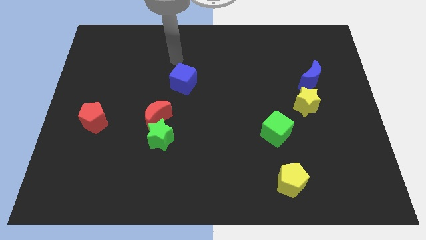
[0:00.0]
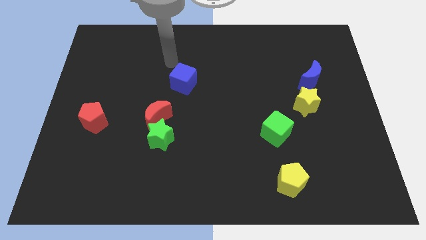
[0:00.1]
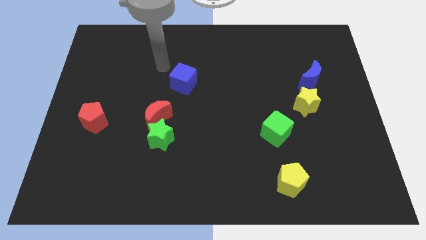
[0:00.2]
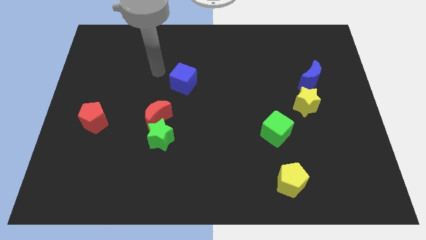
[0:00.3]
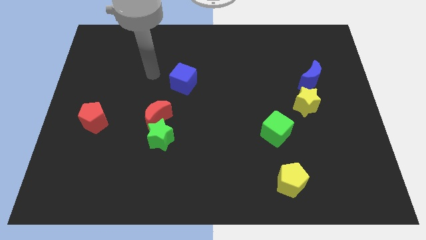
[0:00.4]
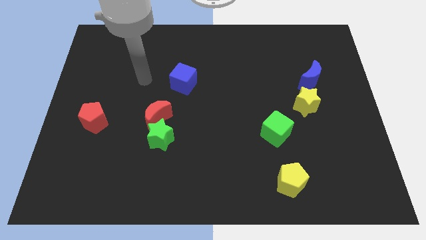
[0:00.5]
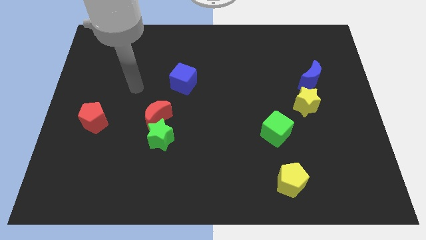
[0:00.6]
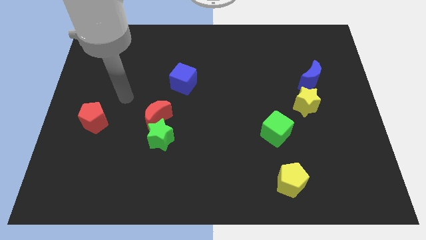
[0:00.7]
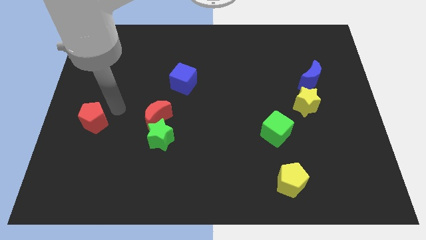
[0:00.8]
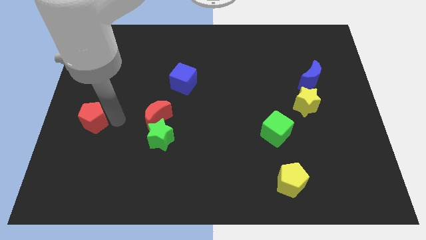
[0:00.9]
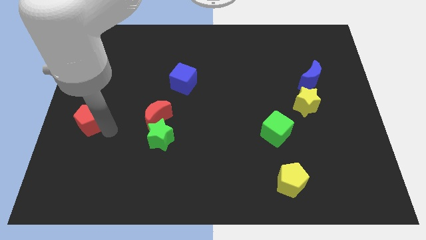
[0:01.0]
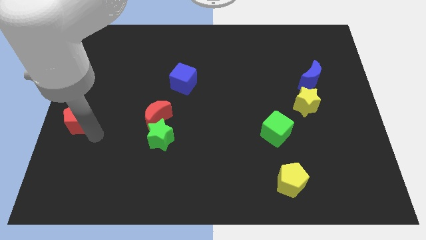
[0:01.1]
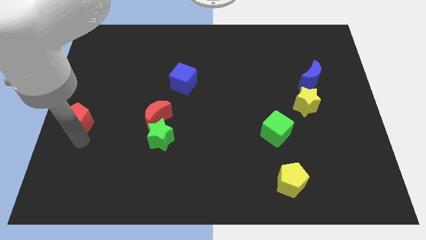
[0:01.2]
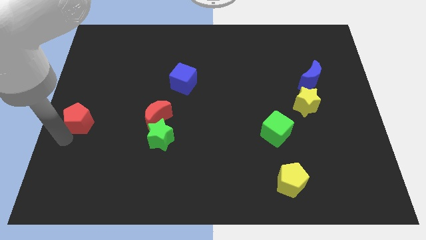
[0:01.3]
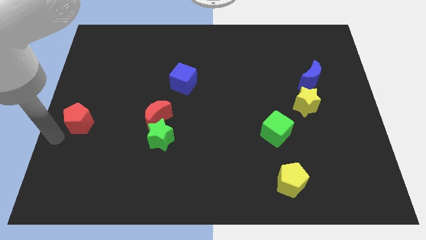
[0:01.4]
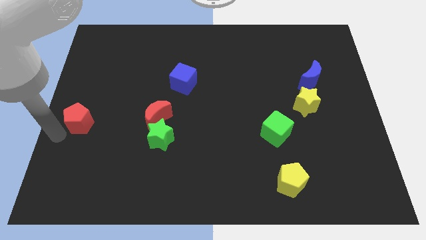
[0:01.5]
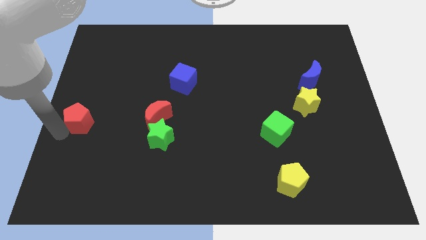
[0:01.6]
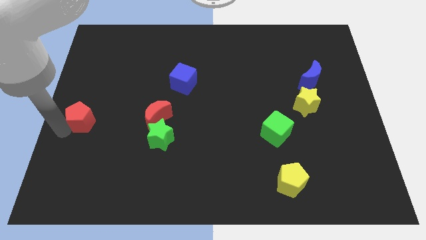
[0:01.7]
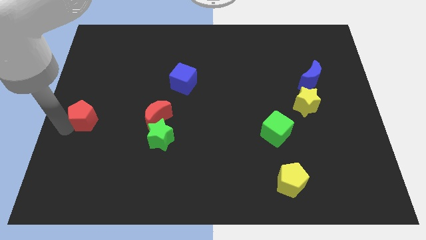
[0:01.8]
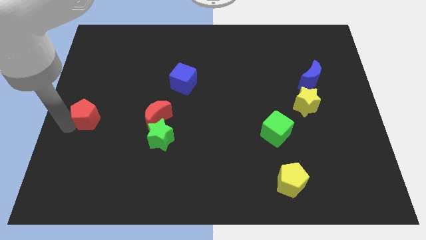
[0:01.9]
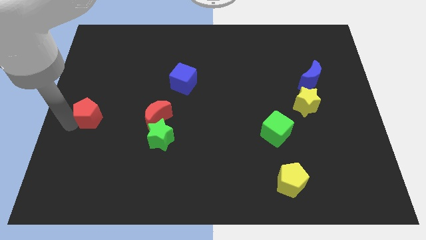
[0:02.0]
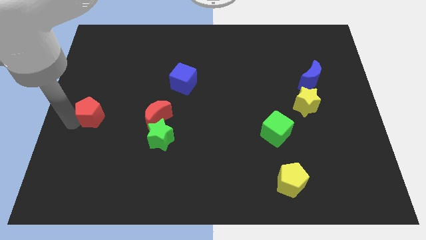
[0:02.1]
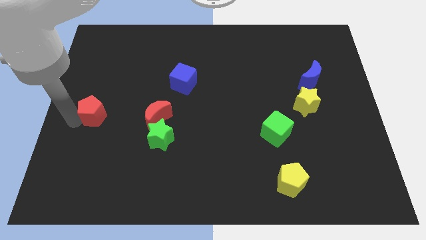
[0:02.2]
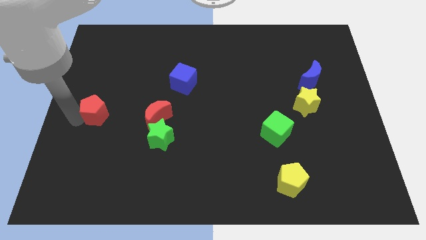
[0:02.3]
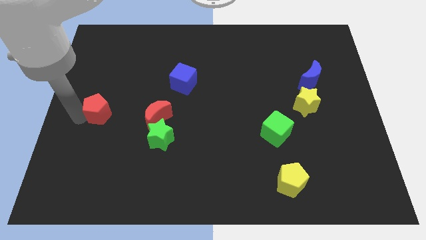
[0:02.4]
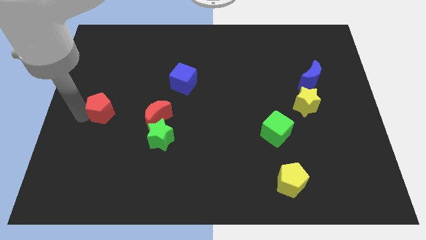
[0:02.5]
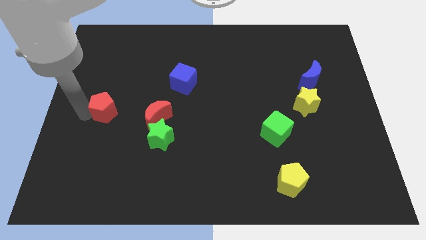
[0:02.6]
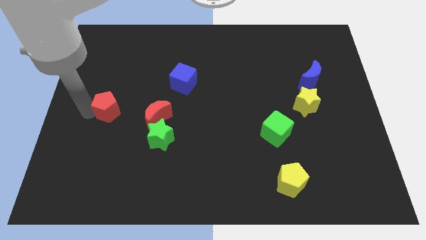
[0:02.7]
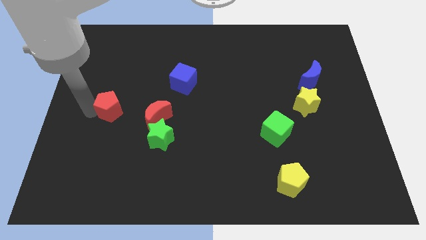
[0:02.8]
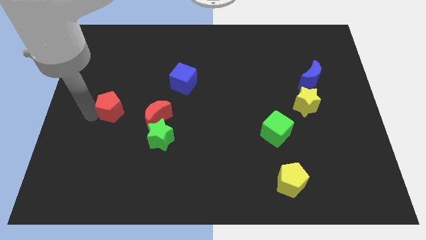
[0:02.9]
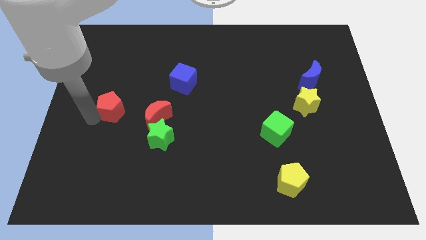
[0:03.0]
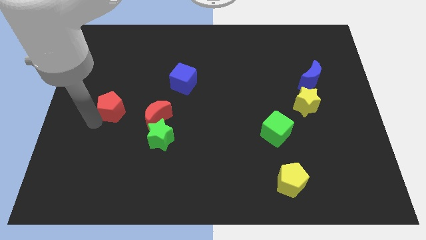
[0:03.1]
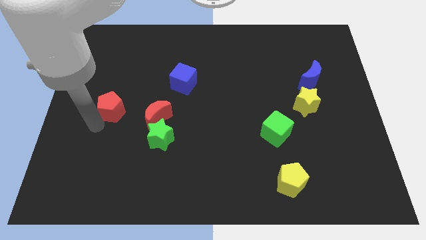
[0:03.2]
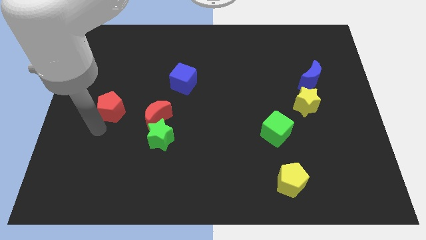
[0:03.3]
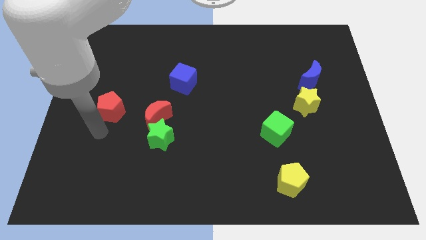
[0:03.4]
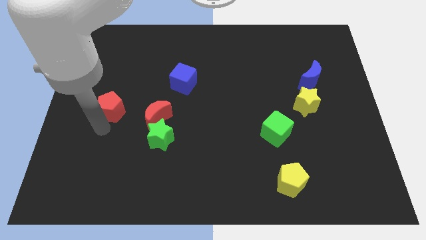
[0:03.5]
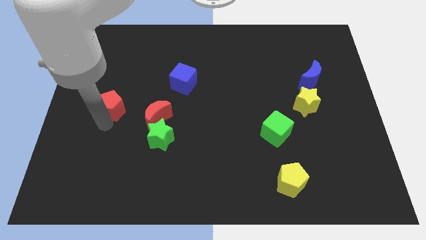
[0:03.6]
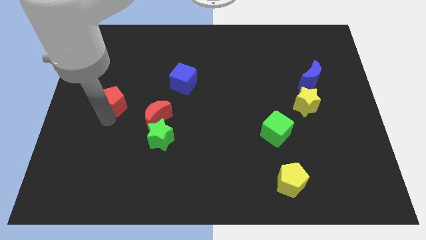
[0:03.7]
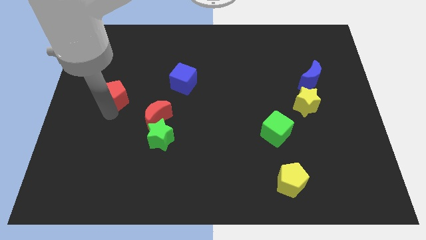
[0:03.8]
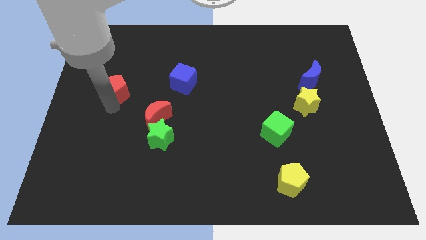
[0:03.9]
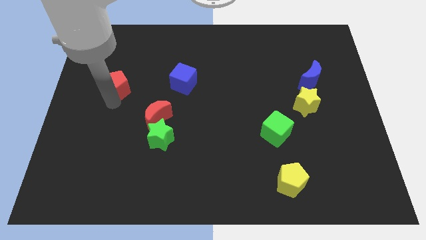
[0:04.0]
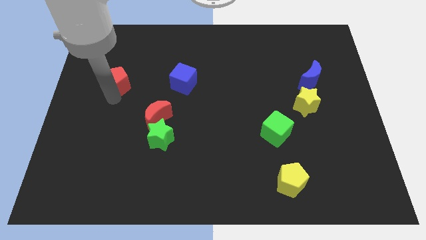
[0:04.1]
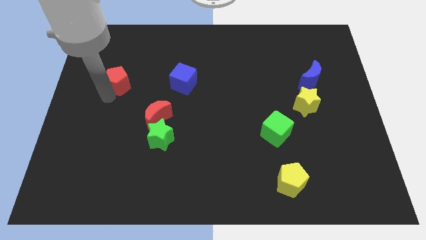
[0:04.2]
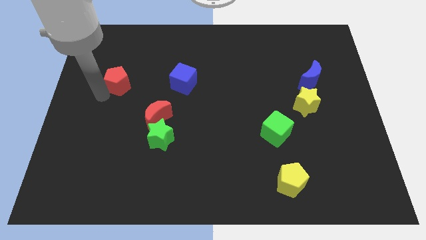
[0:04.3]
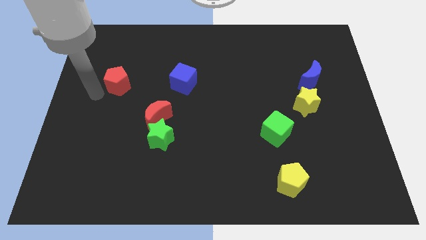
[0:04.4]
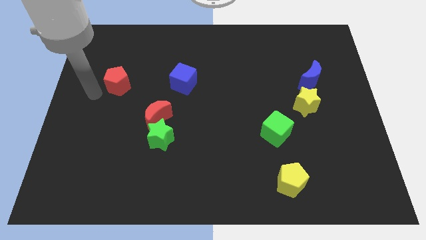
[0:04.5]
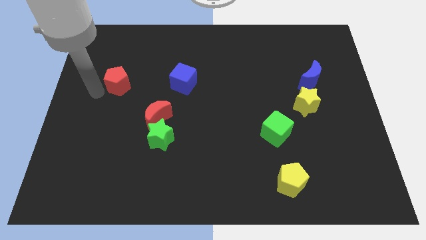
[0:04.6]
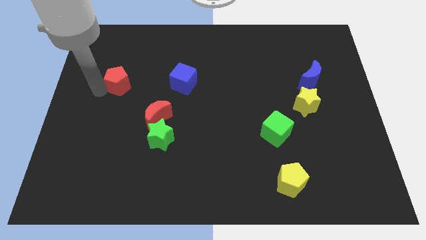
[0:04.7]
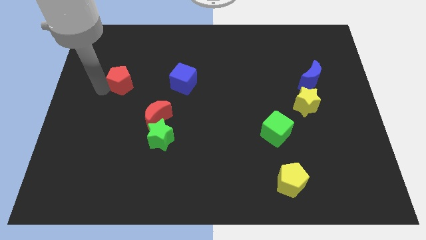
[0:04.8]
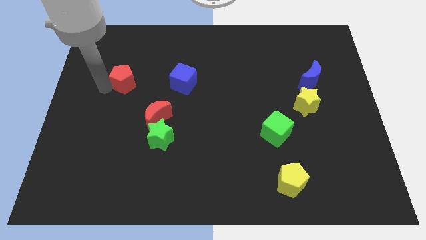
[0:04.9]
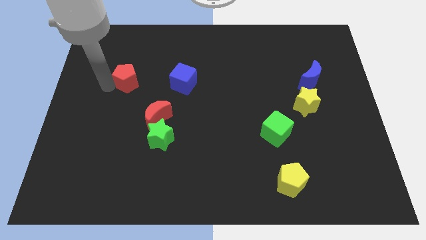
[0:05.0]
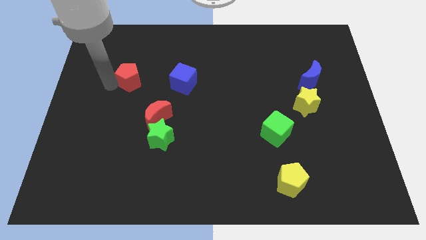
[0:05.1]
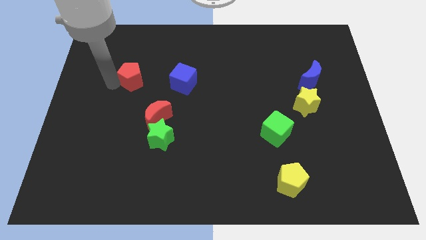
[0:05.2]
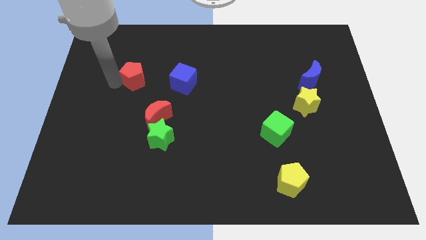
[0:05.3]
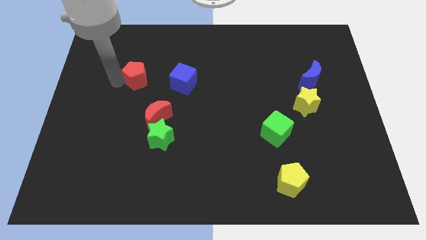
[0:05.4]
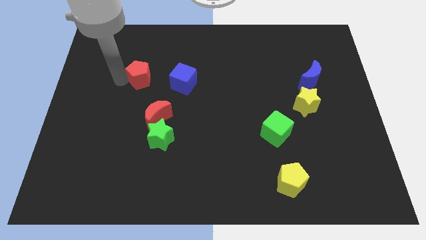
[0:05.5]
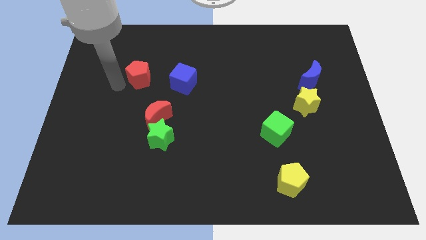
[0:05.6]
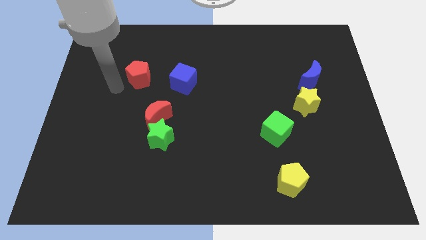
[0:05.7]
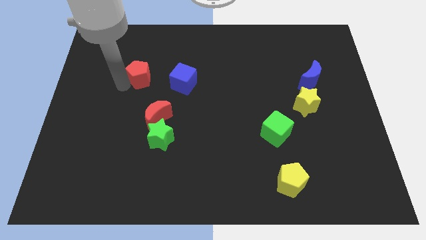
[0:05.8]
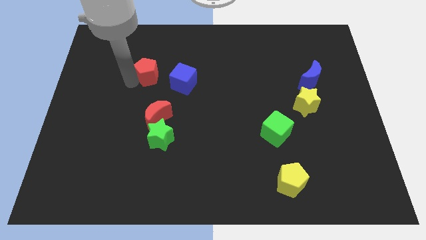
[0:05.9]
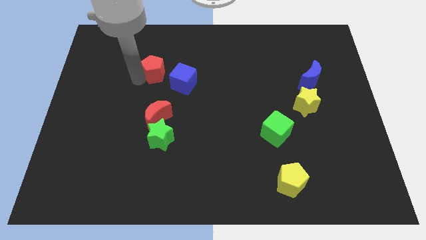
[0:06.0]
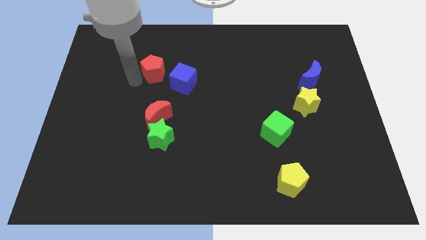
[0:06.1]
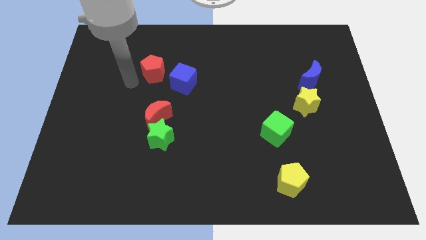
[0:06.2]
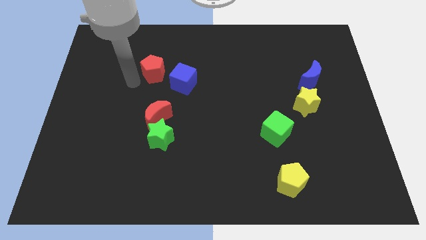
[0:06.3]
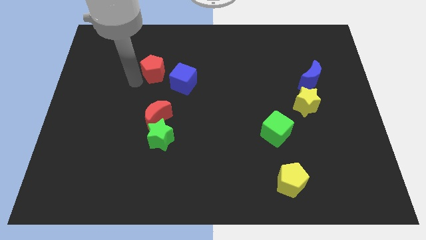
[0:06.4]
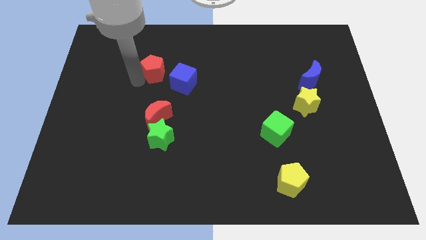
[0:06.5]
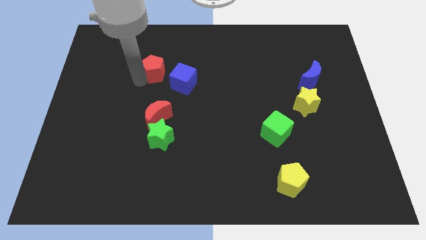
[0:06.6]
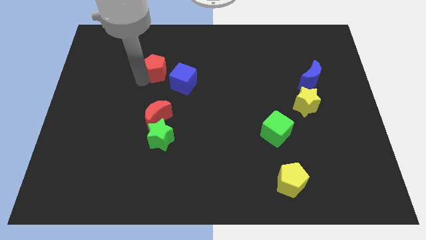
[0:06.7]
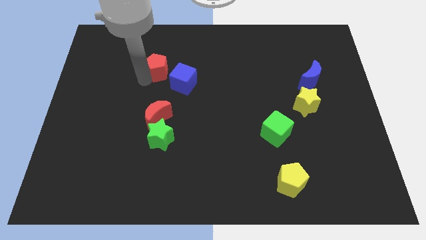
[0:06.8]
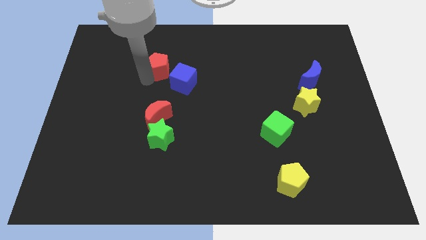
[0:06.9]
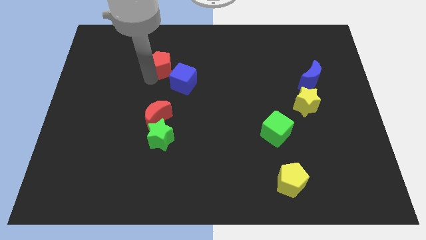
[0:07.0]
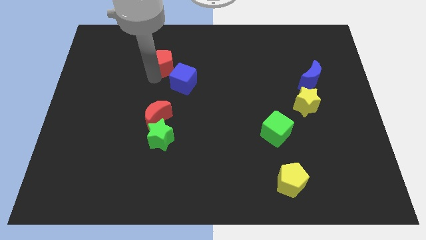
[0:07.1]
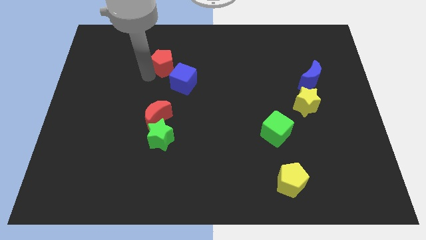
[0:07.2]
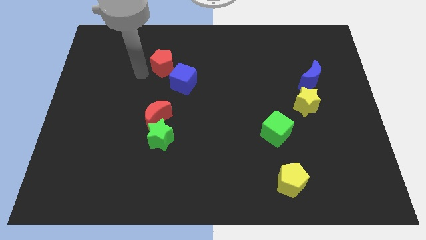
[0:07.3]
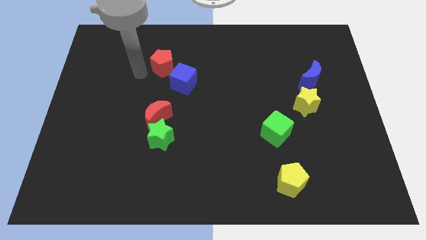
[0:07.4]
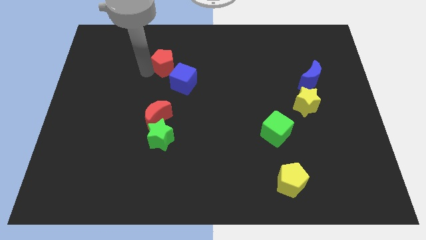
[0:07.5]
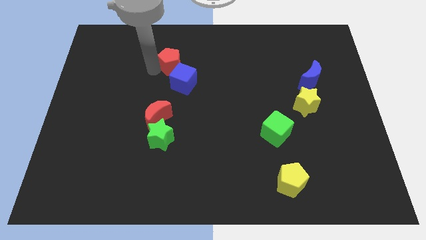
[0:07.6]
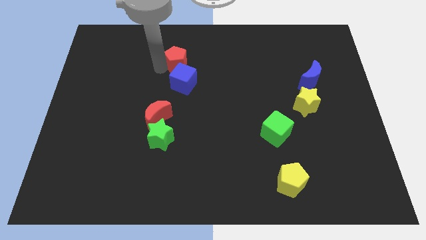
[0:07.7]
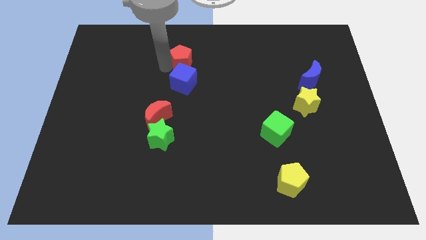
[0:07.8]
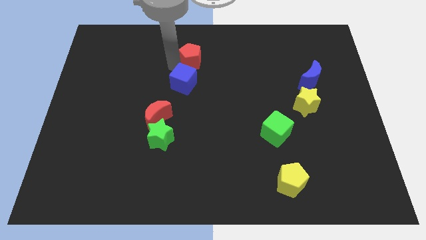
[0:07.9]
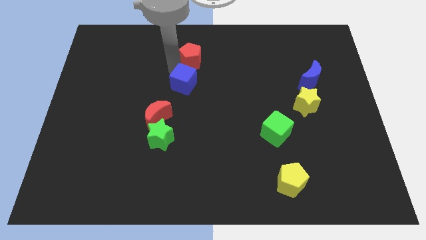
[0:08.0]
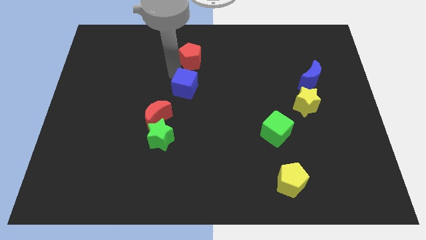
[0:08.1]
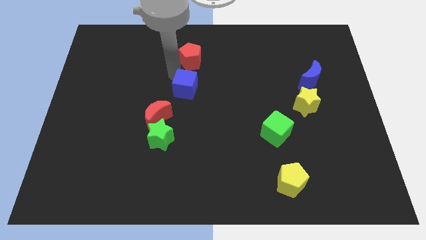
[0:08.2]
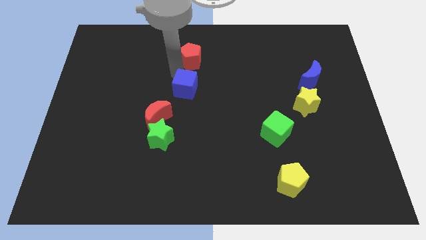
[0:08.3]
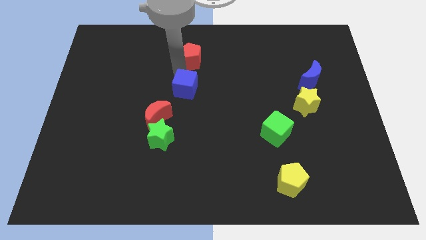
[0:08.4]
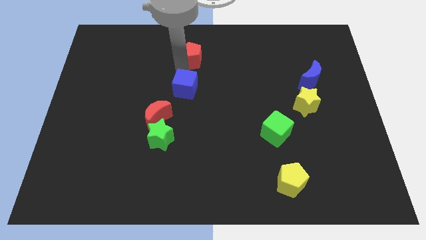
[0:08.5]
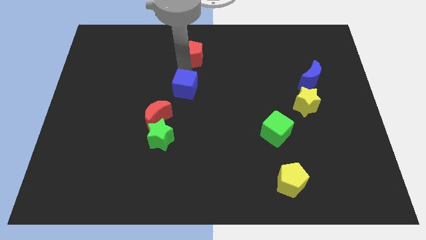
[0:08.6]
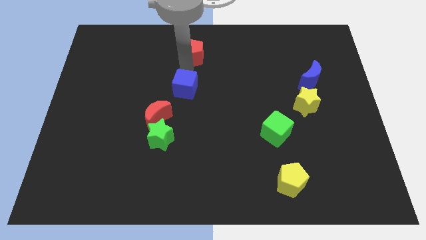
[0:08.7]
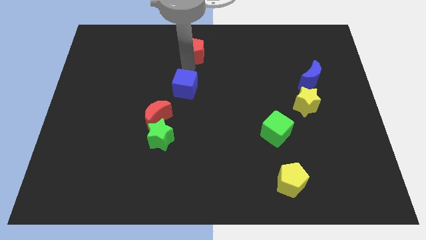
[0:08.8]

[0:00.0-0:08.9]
put the red pentagon to the top side
